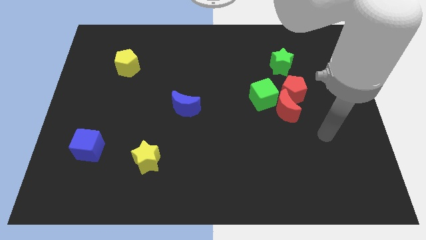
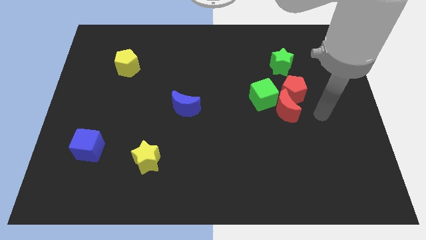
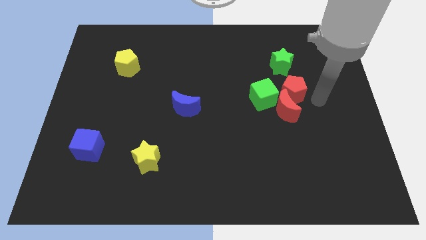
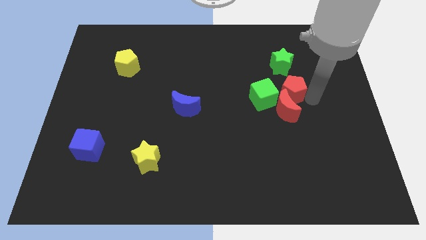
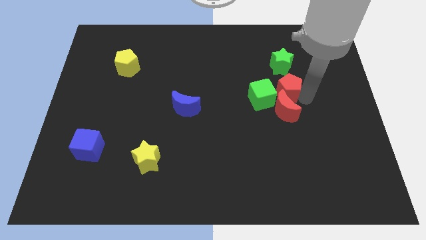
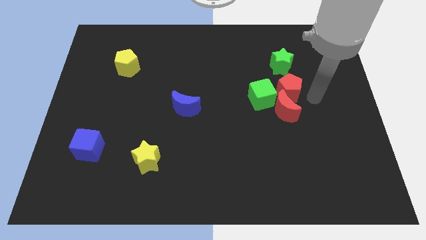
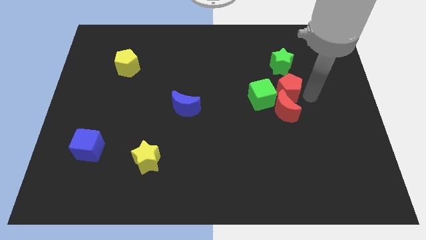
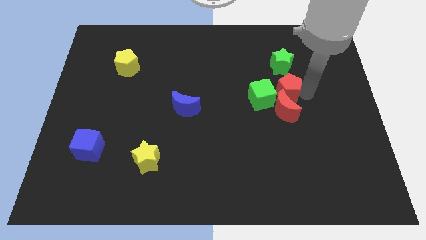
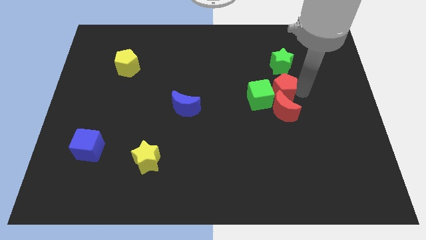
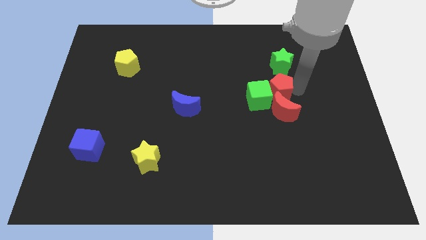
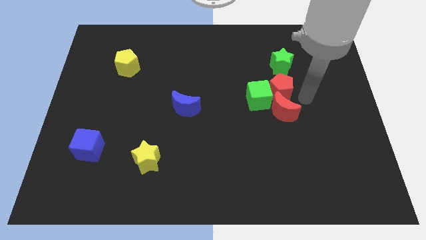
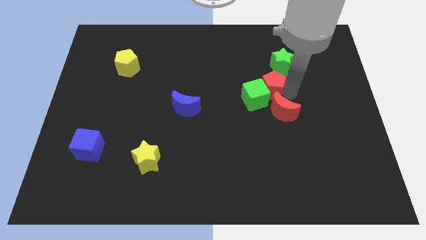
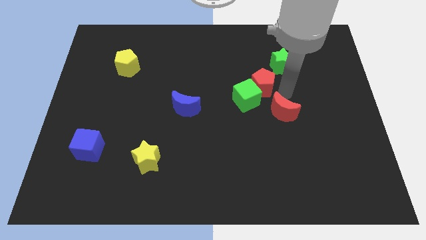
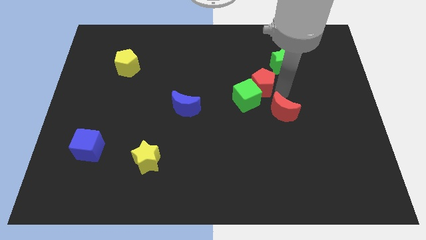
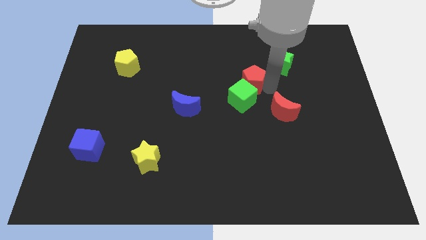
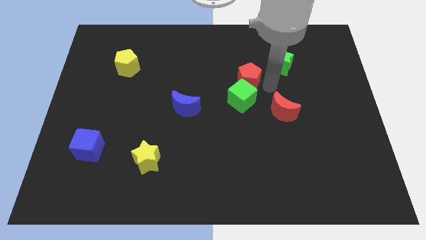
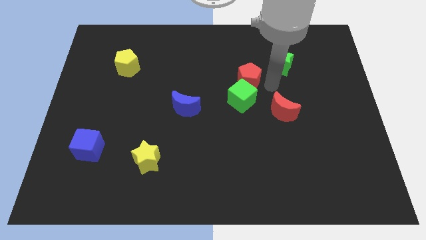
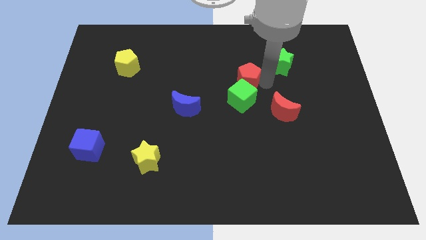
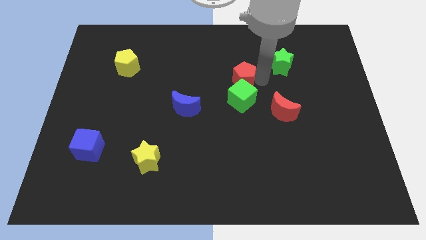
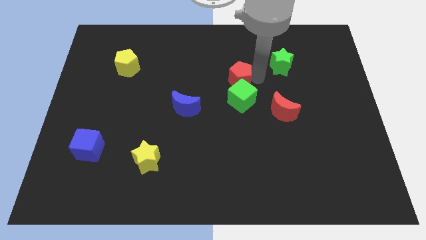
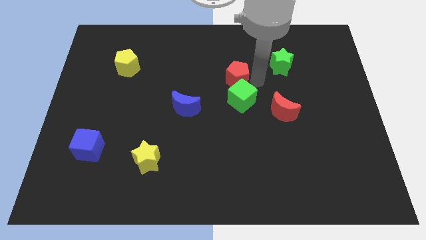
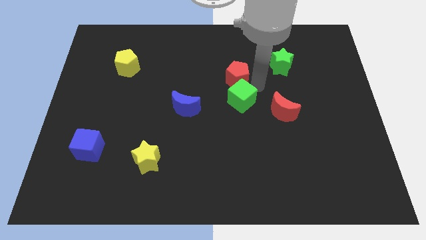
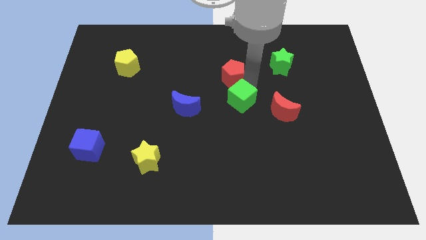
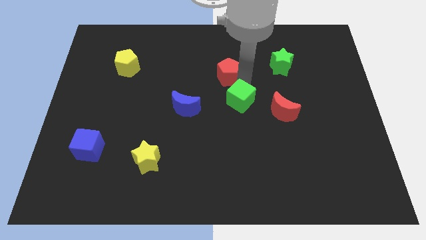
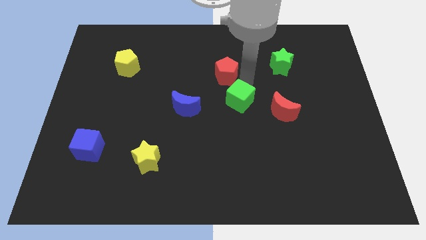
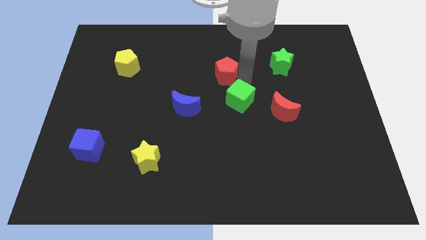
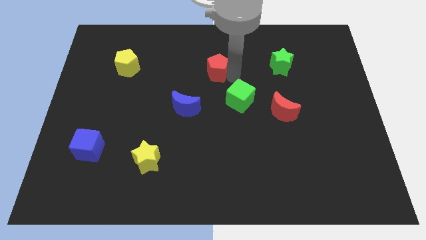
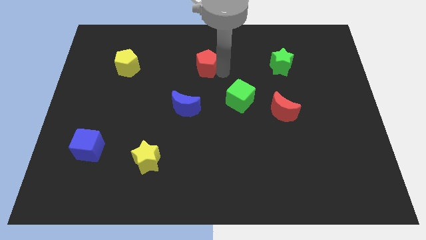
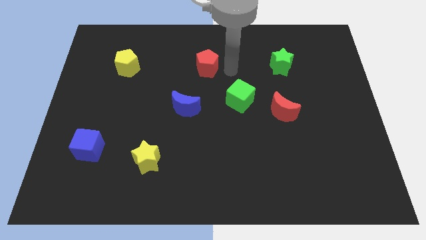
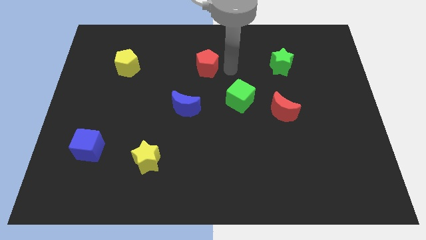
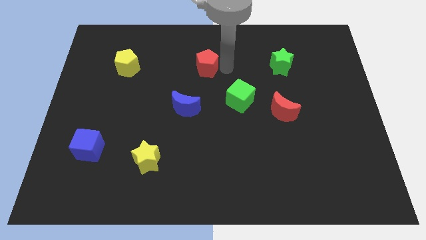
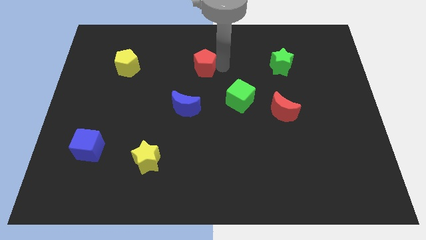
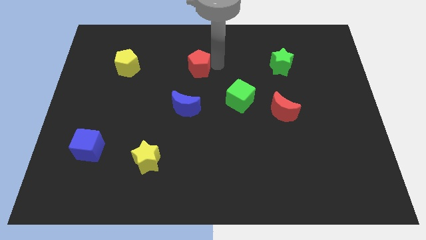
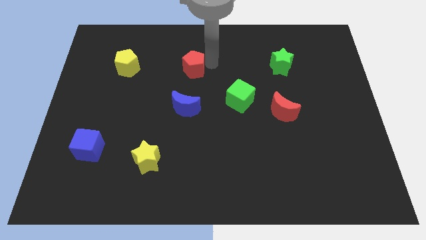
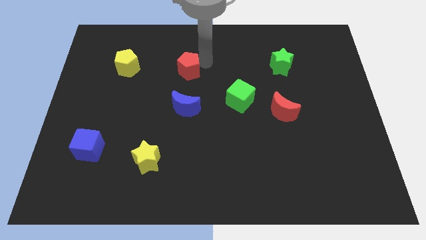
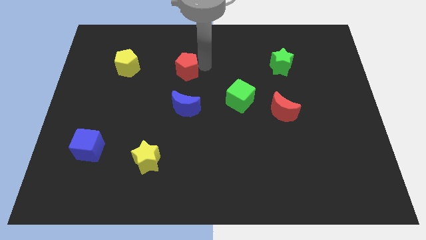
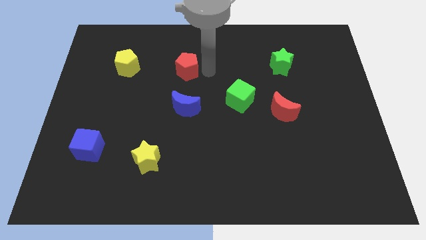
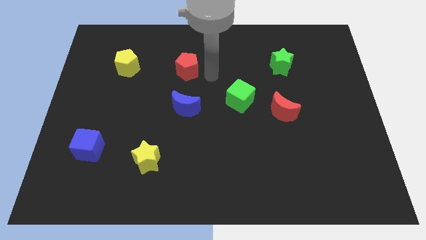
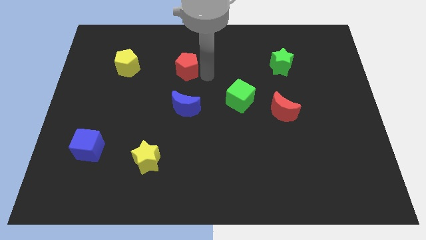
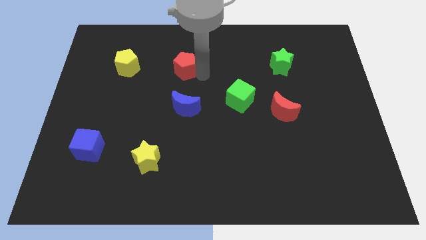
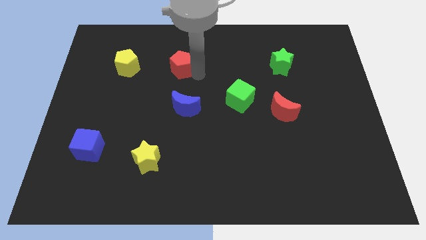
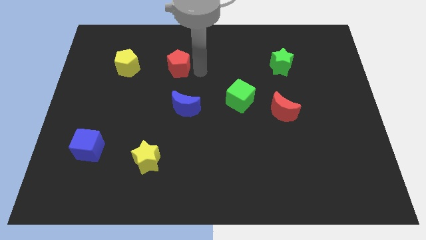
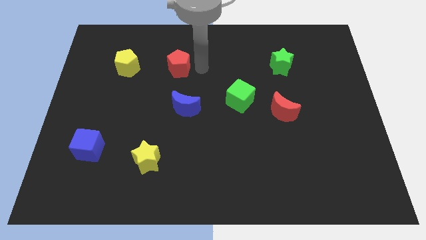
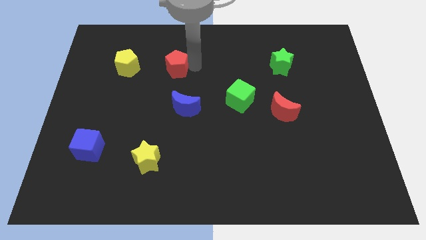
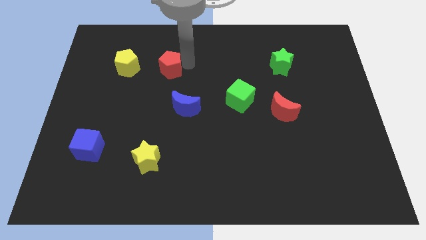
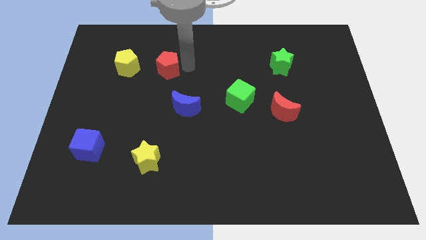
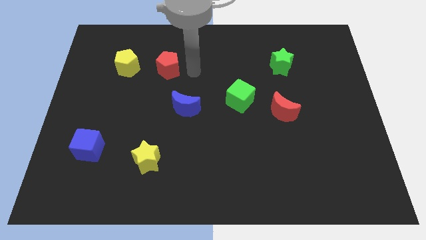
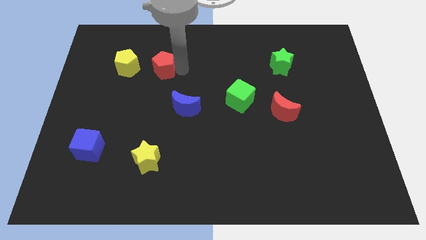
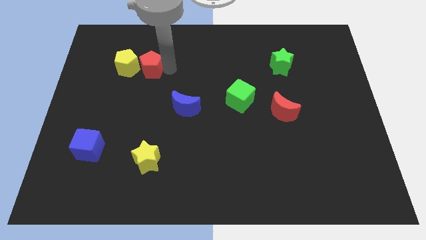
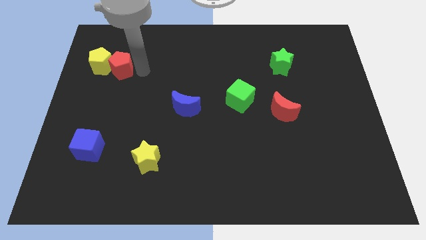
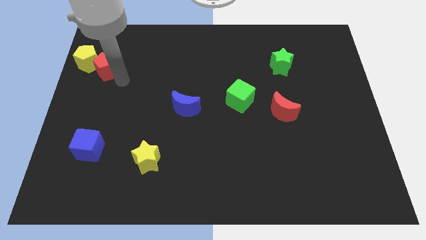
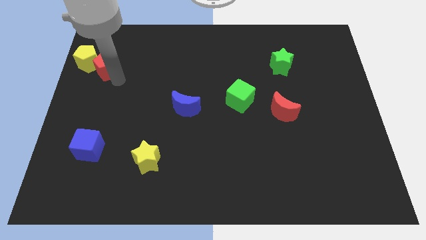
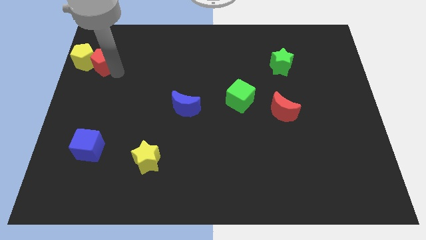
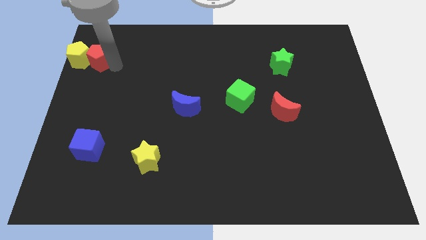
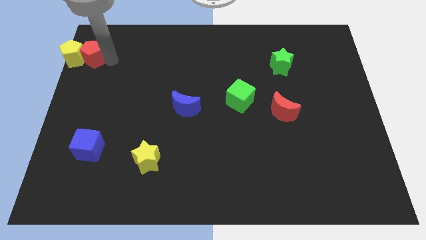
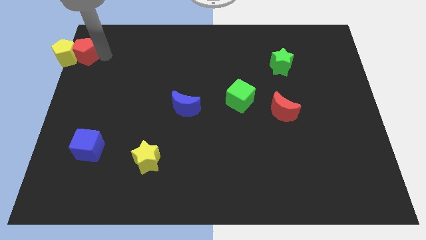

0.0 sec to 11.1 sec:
push the red pentagon to the top left corner
